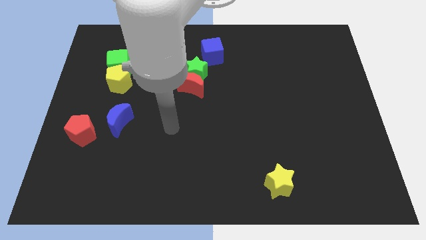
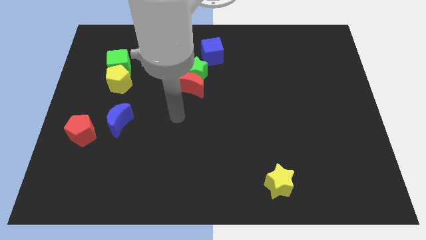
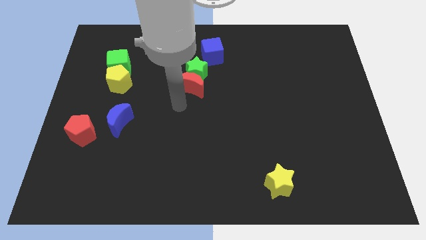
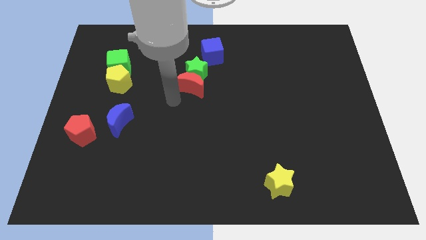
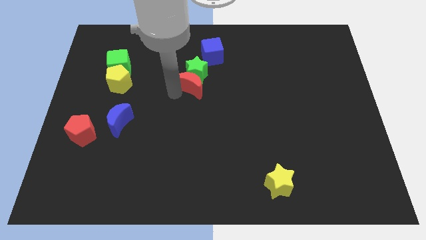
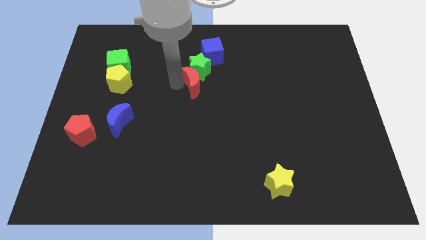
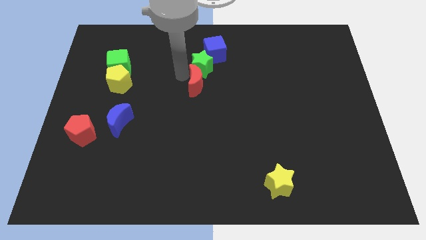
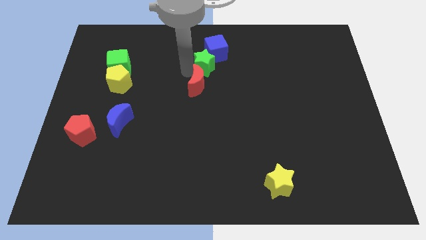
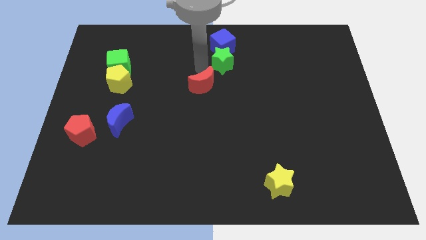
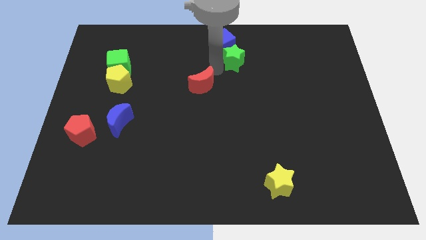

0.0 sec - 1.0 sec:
pull the red moon apart from the green star

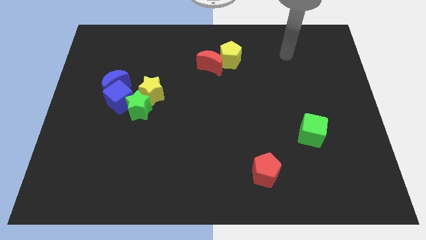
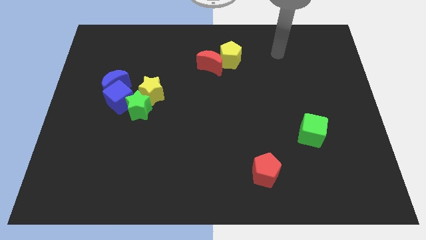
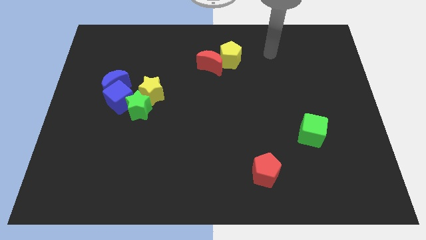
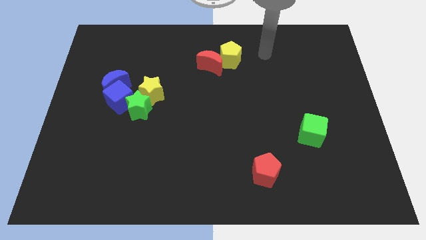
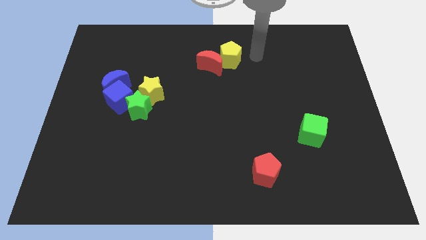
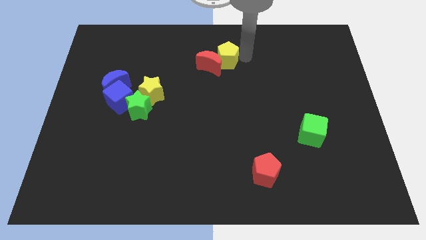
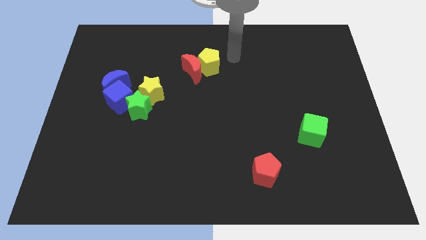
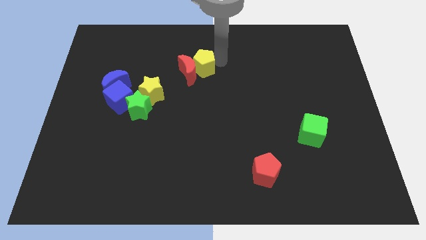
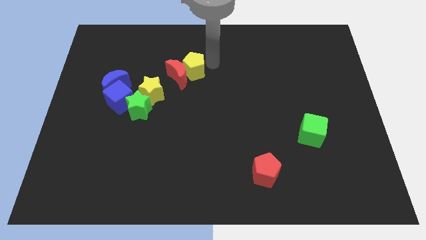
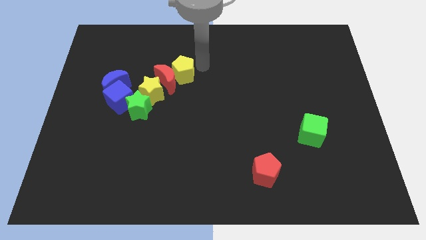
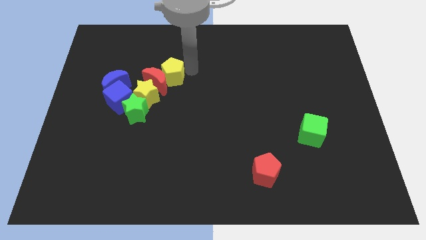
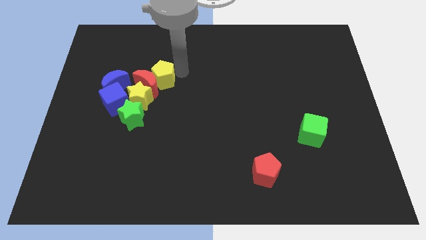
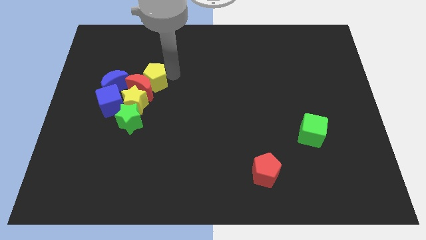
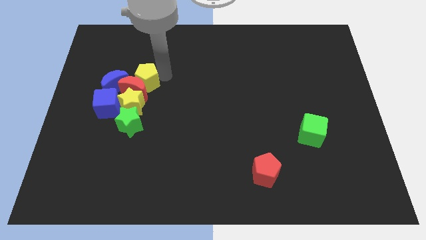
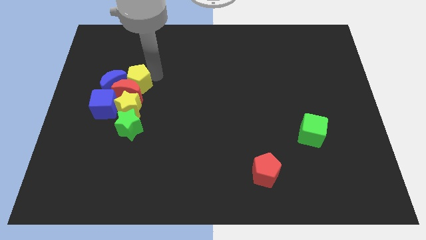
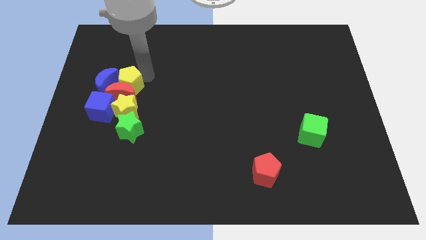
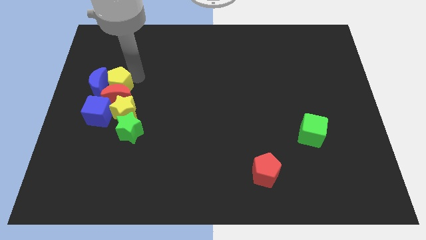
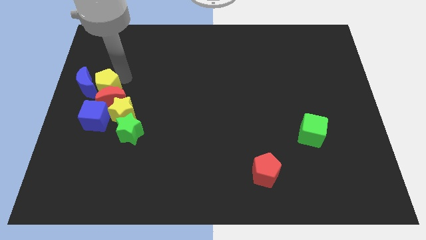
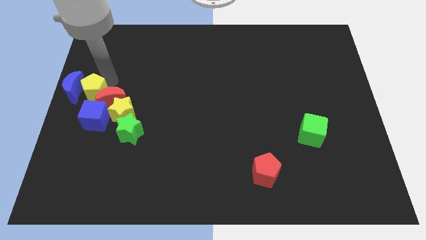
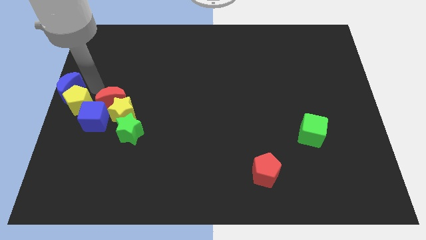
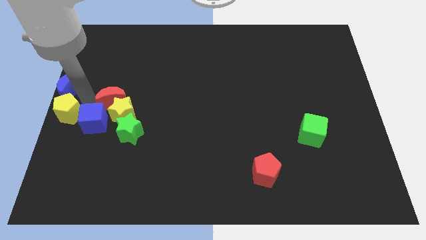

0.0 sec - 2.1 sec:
move the red moon away from the yellow pentagon

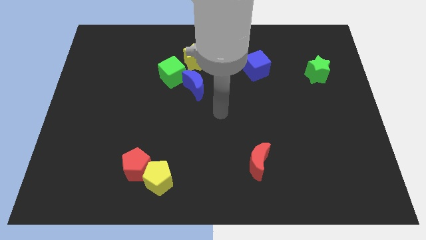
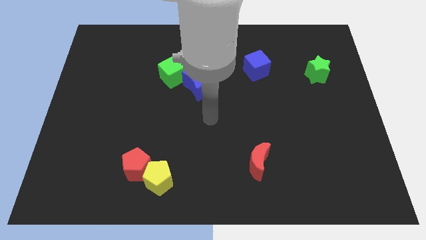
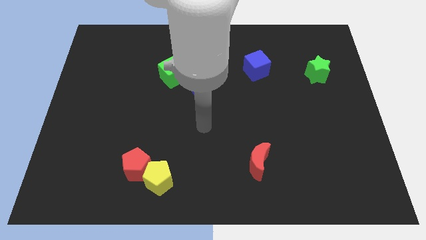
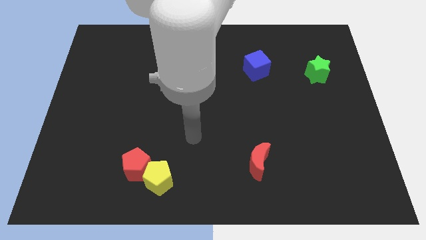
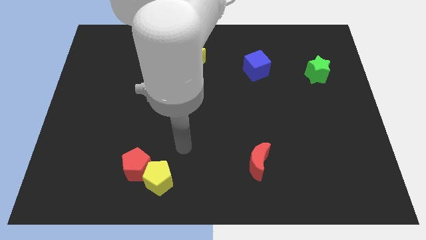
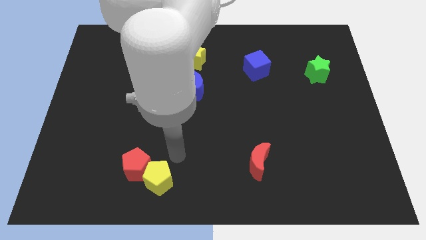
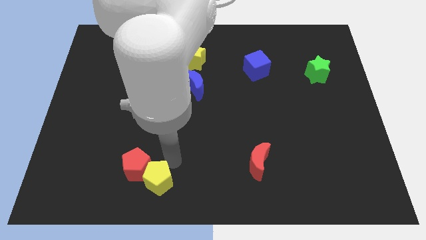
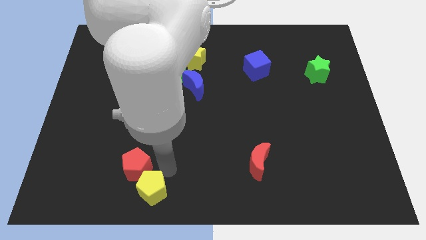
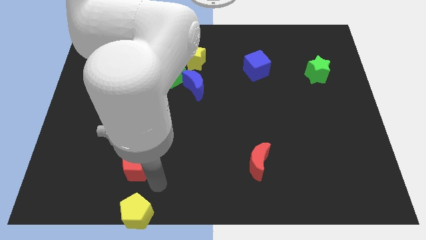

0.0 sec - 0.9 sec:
move the red pentagon away from the yellow pentagon

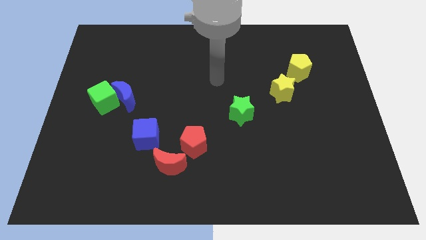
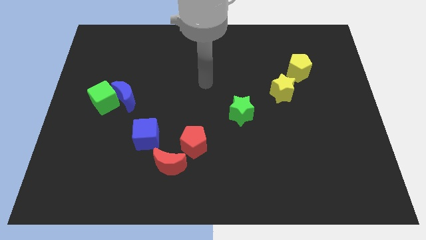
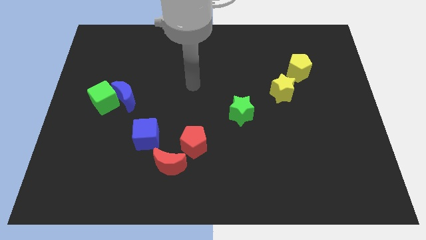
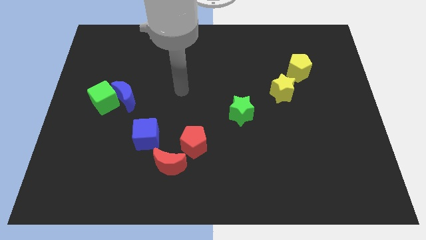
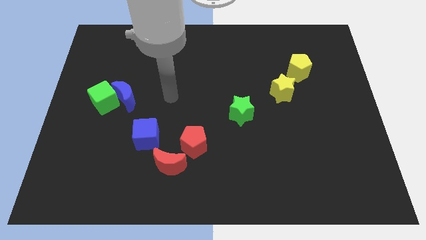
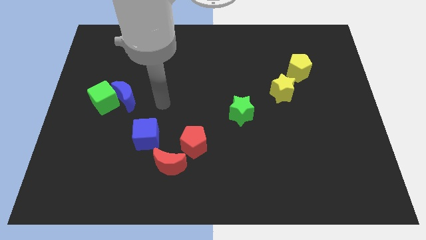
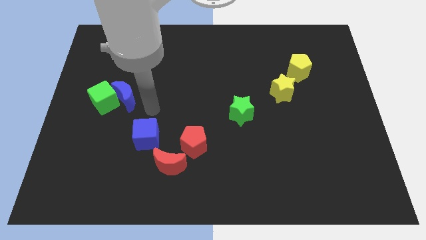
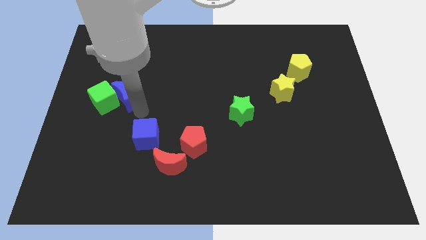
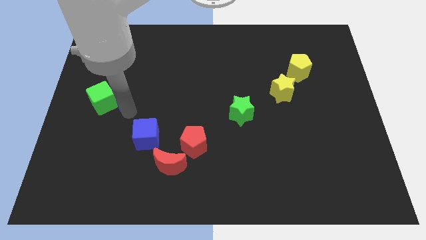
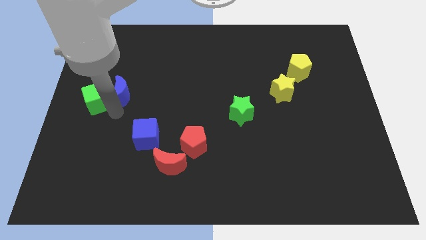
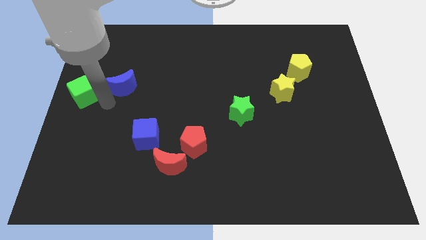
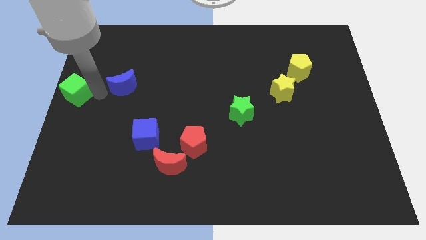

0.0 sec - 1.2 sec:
pull the blue moon apart from the green cube

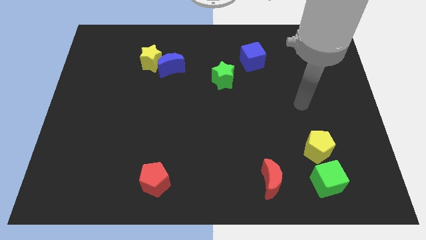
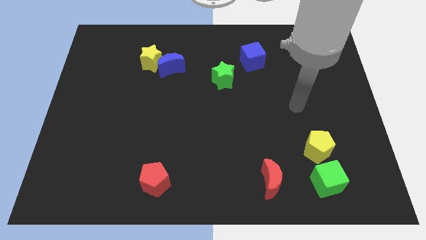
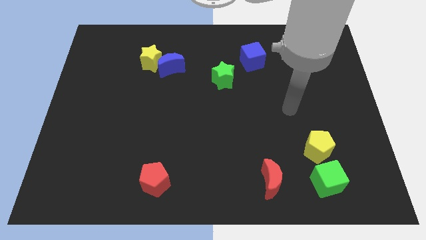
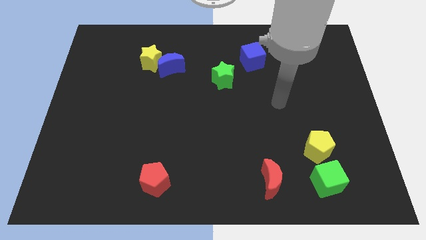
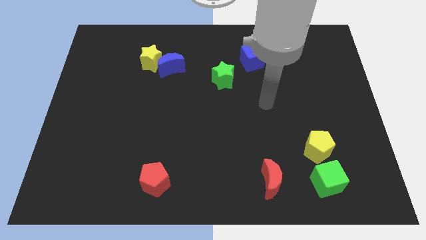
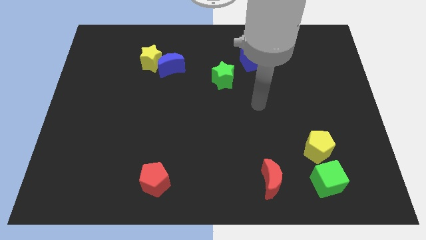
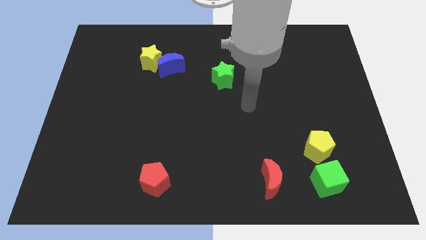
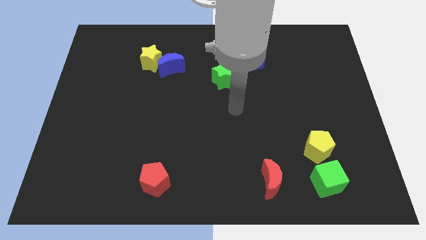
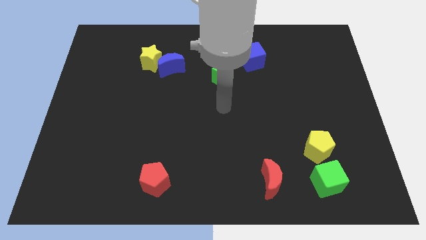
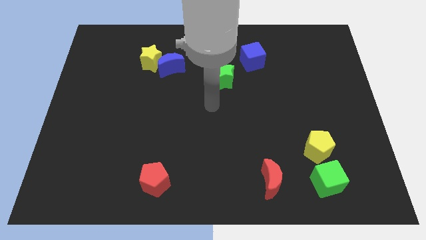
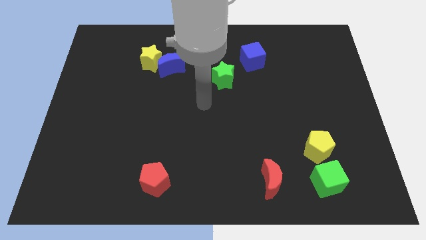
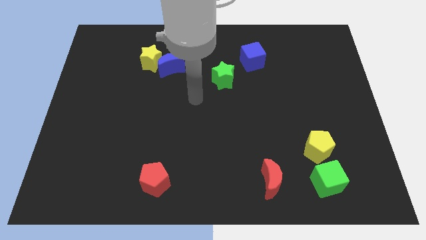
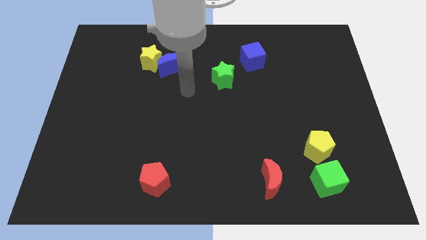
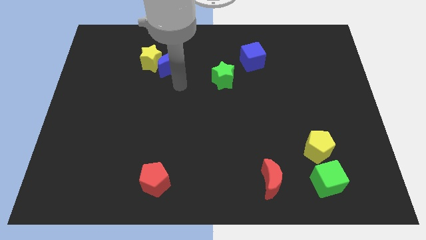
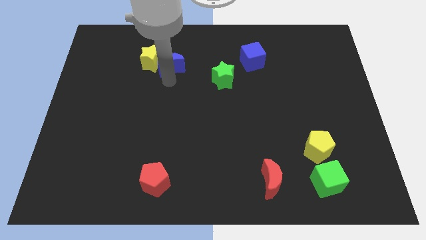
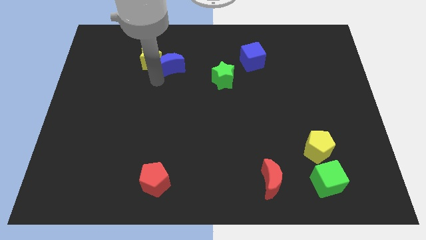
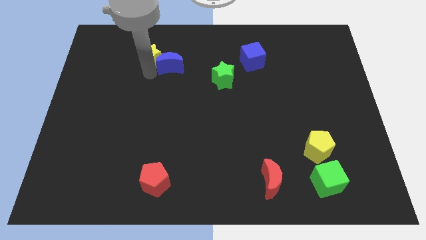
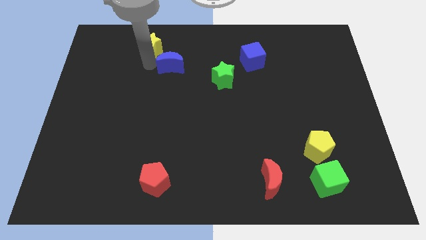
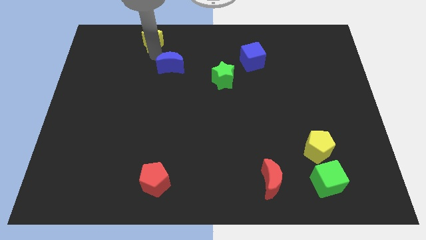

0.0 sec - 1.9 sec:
move the blue moon away from the yellow star

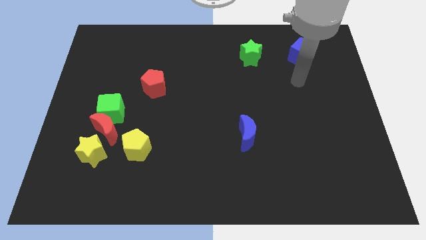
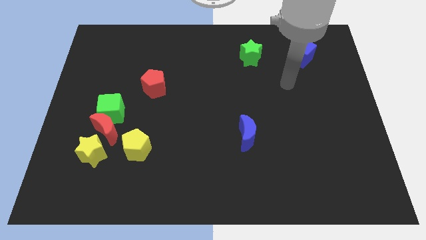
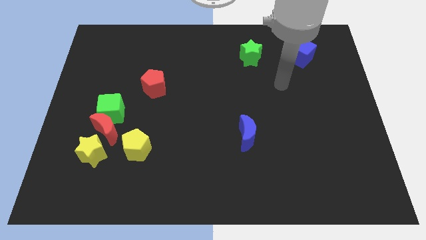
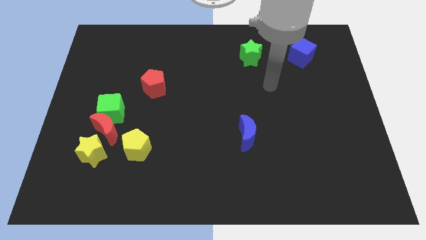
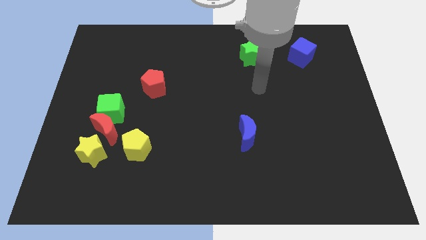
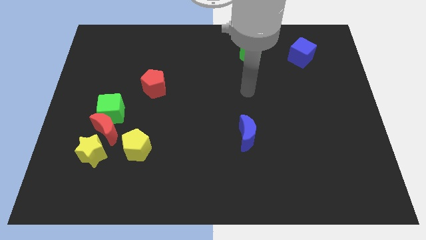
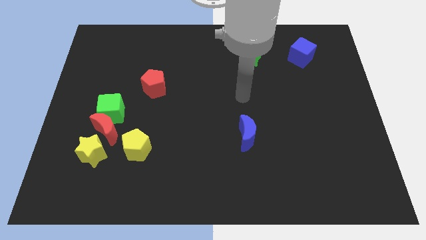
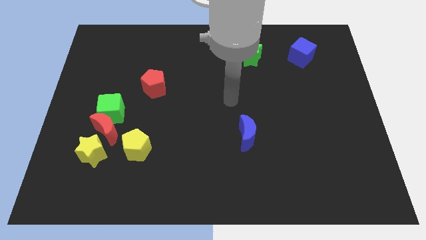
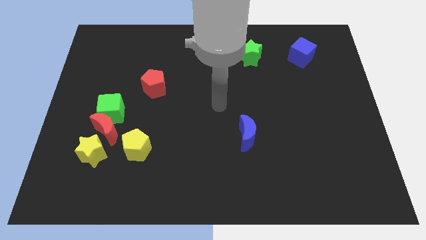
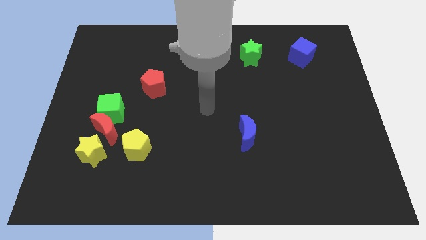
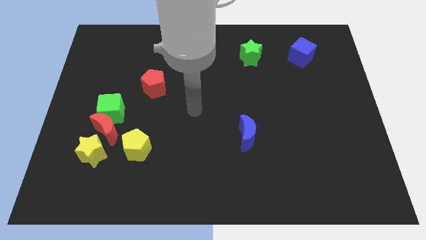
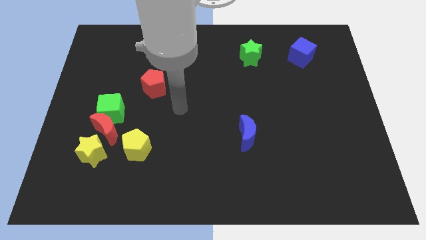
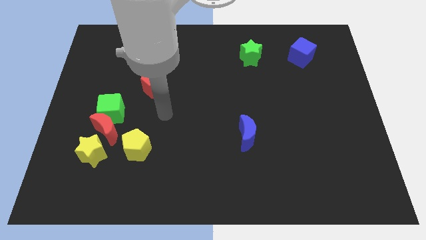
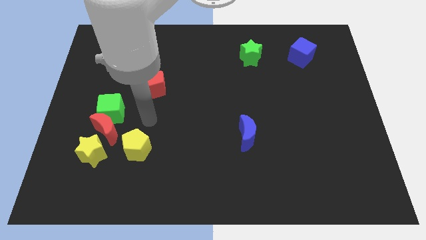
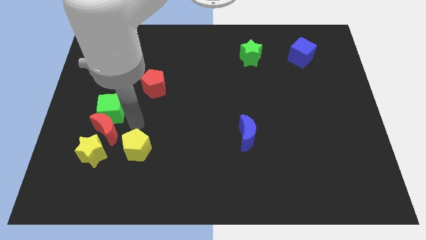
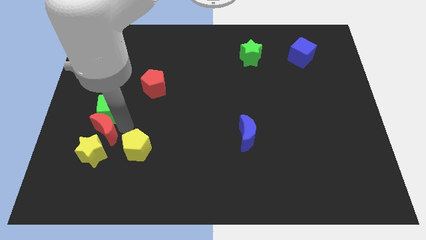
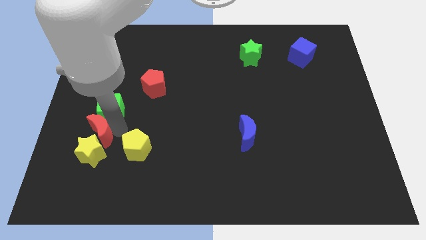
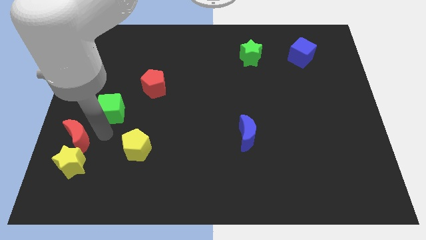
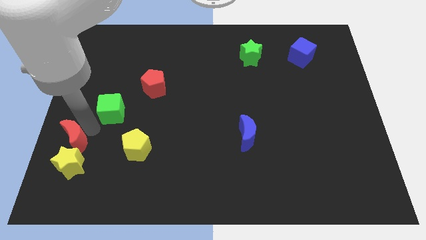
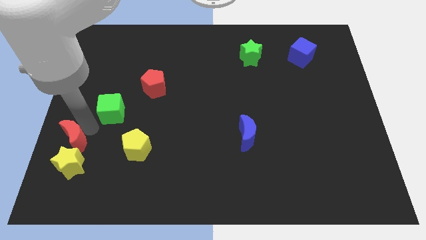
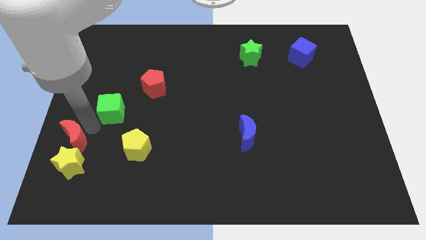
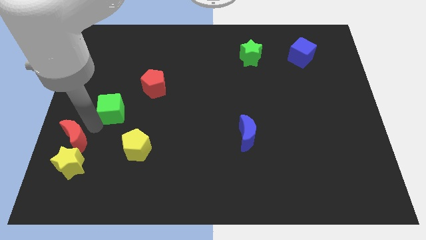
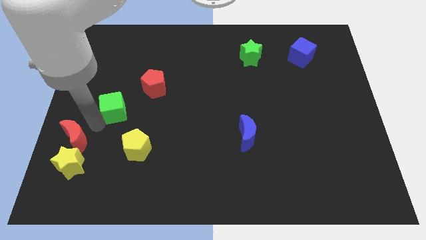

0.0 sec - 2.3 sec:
move the green cube away from the red moon
